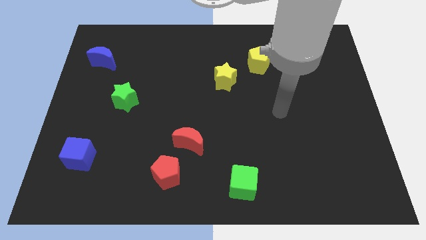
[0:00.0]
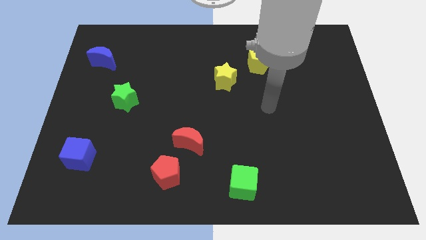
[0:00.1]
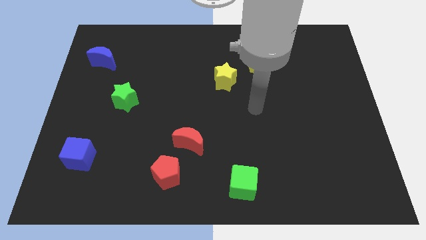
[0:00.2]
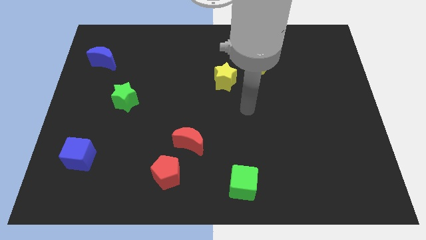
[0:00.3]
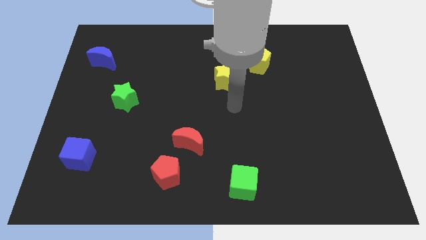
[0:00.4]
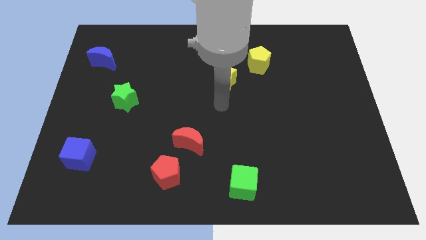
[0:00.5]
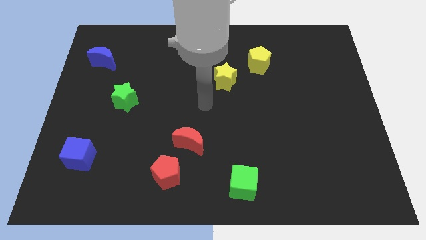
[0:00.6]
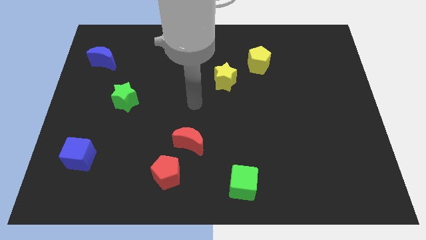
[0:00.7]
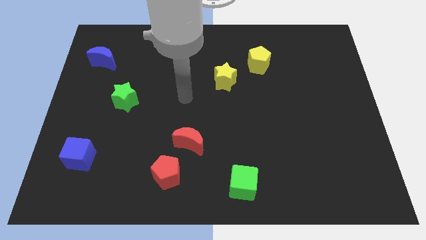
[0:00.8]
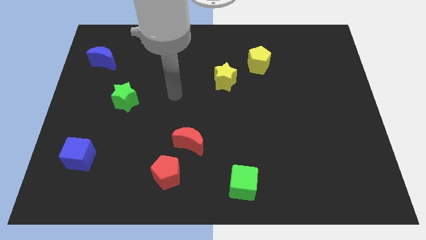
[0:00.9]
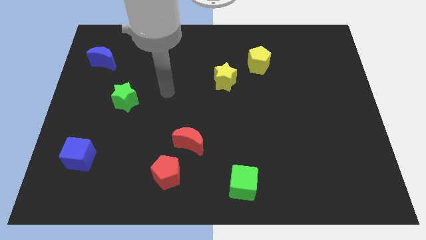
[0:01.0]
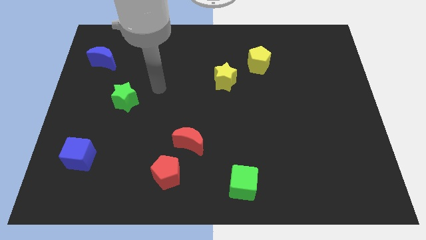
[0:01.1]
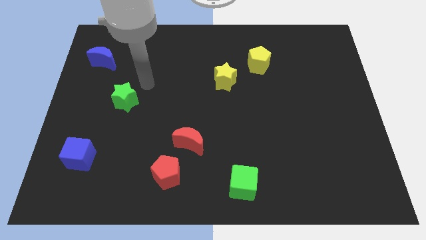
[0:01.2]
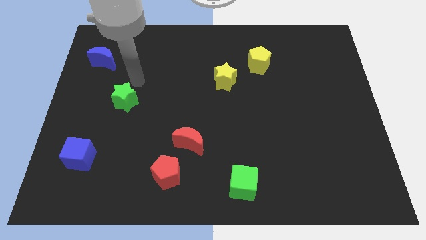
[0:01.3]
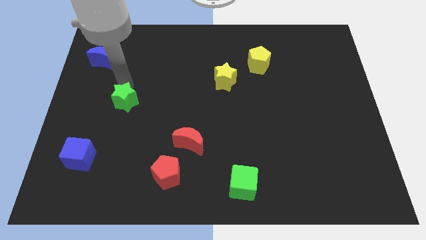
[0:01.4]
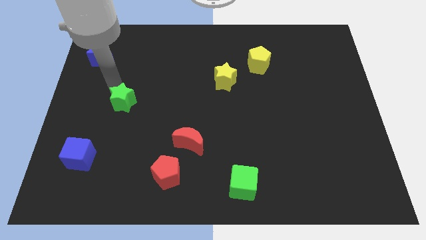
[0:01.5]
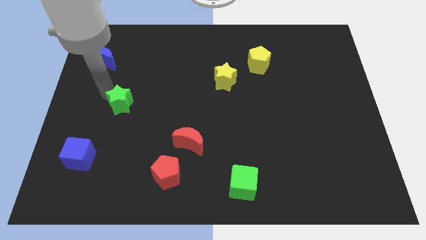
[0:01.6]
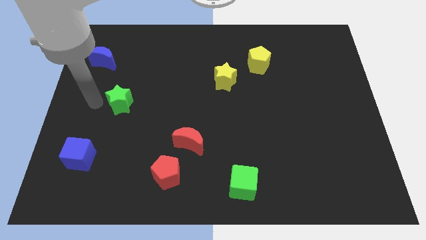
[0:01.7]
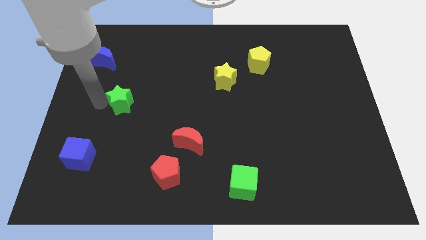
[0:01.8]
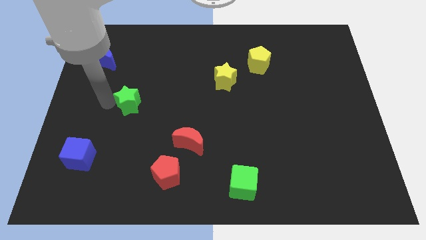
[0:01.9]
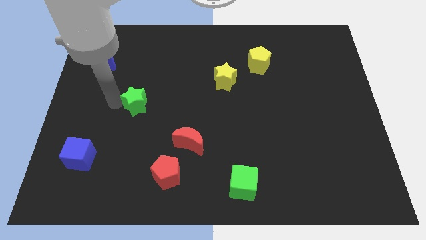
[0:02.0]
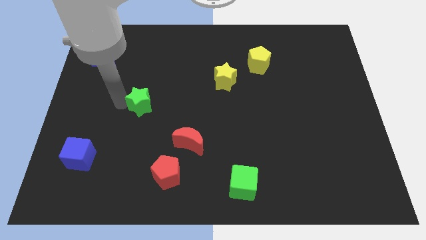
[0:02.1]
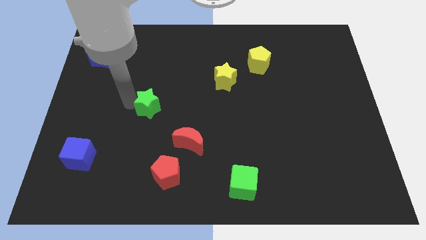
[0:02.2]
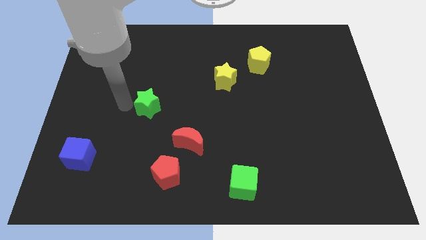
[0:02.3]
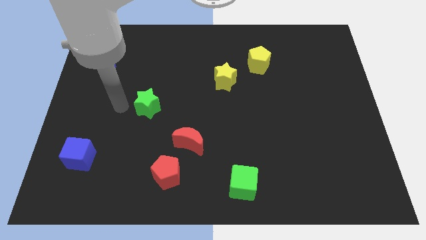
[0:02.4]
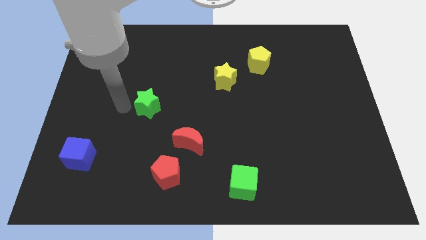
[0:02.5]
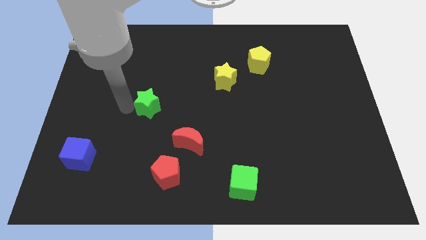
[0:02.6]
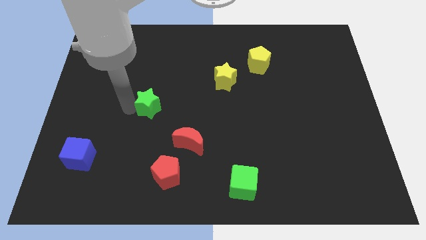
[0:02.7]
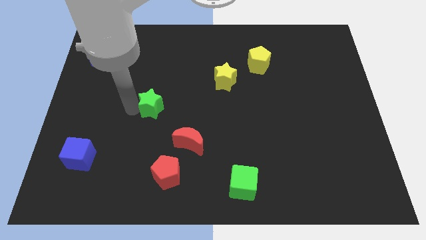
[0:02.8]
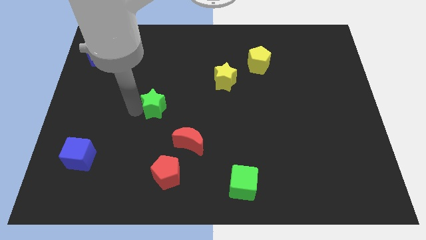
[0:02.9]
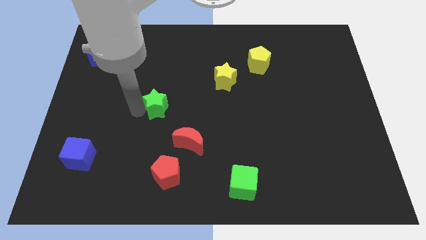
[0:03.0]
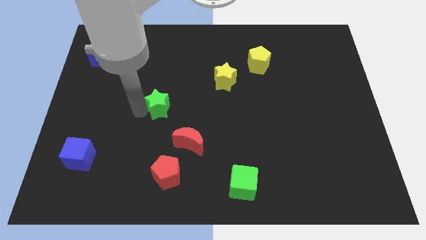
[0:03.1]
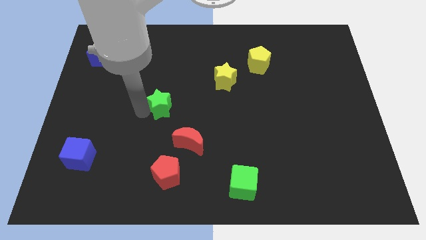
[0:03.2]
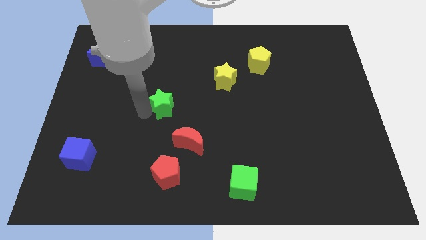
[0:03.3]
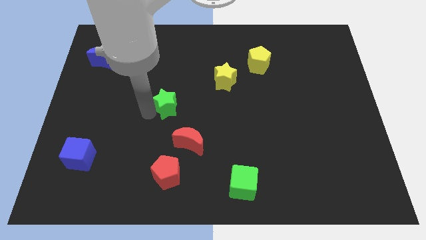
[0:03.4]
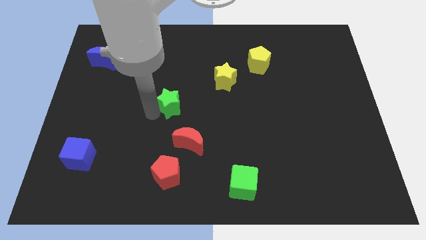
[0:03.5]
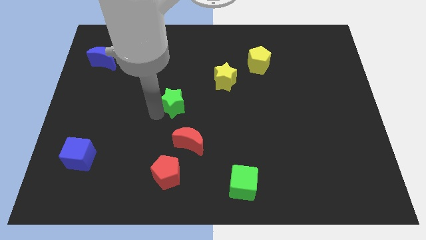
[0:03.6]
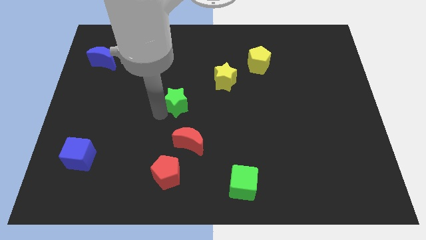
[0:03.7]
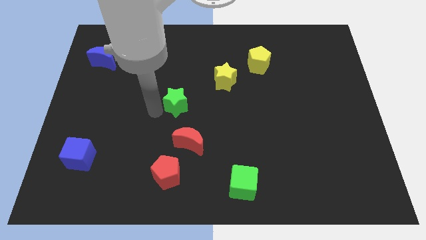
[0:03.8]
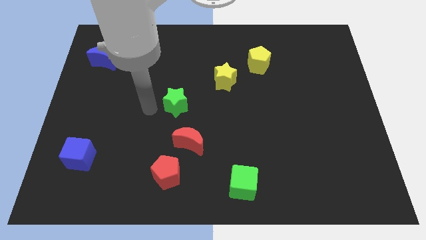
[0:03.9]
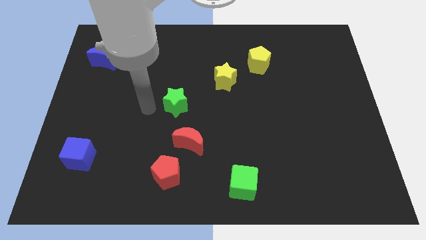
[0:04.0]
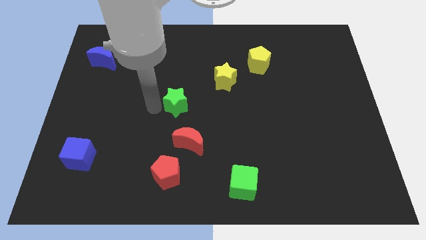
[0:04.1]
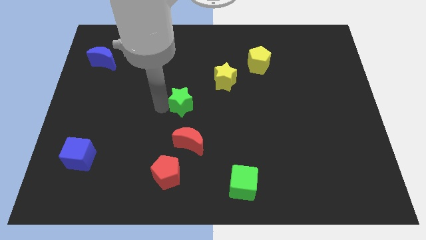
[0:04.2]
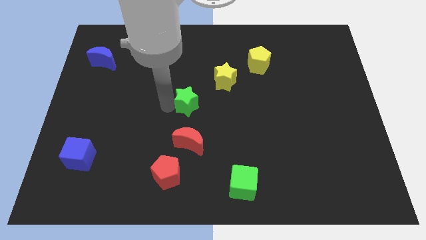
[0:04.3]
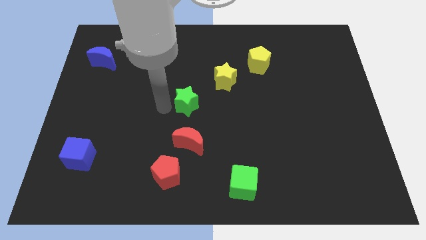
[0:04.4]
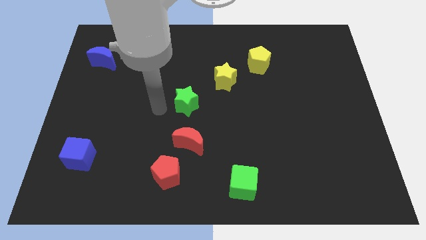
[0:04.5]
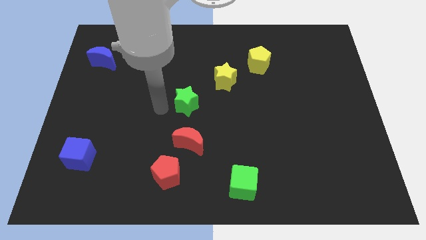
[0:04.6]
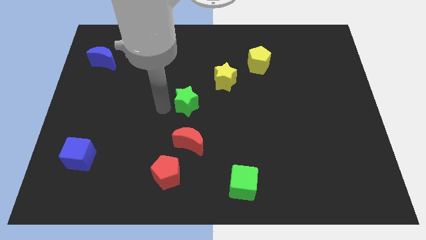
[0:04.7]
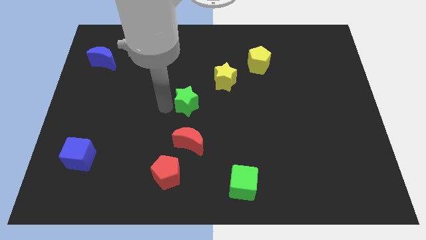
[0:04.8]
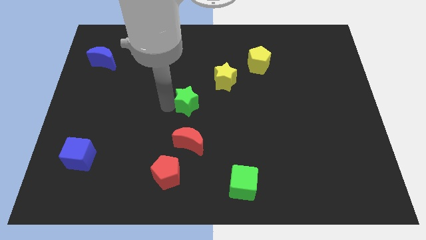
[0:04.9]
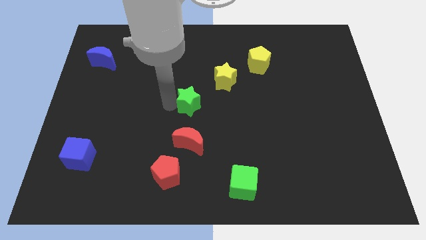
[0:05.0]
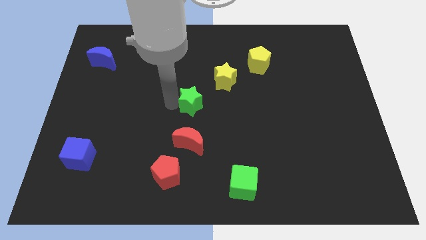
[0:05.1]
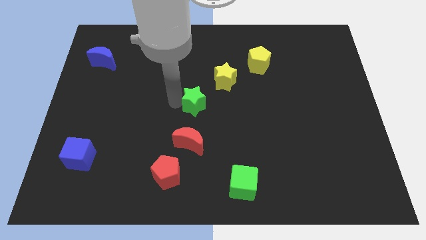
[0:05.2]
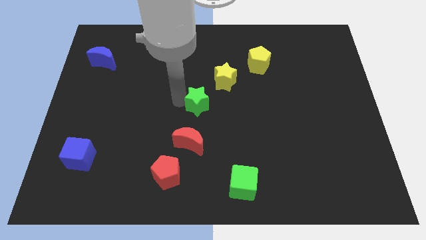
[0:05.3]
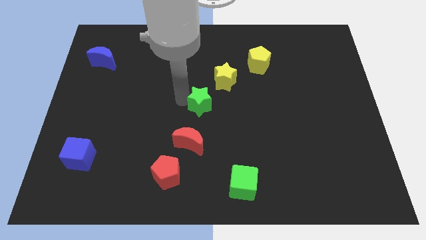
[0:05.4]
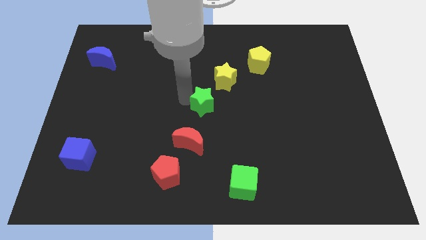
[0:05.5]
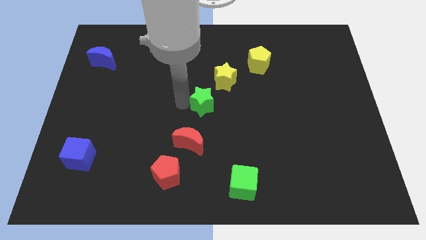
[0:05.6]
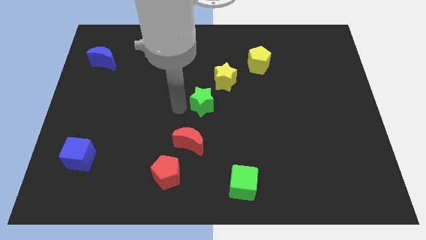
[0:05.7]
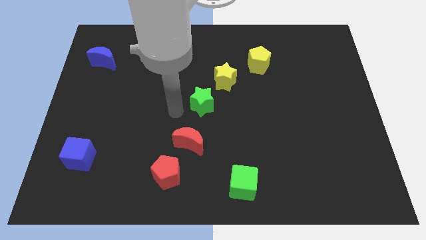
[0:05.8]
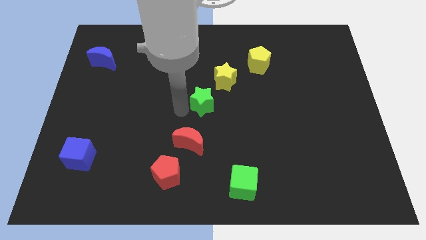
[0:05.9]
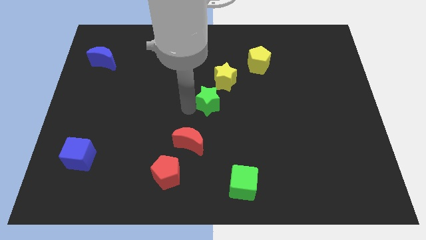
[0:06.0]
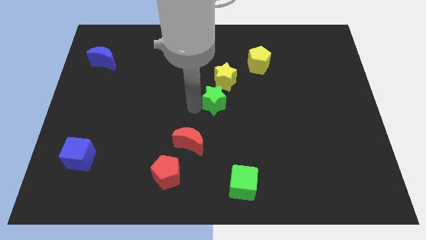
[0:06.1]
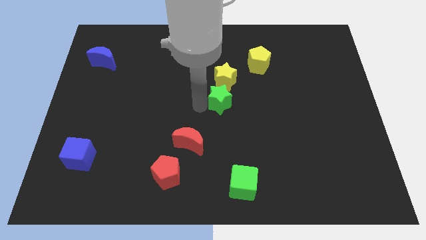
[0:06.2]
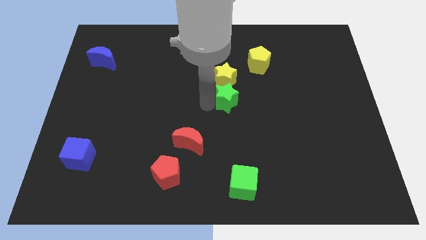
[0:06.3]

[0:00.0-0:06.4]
put the green star diagonally down and to the right of the yellow star

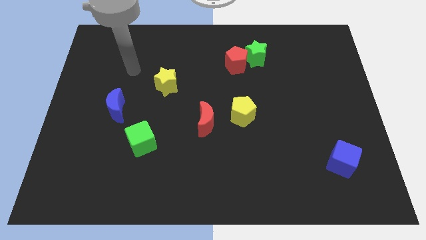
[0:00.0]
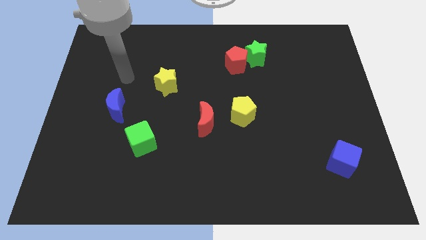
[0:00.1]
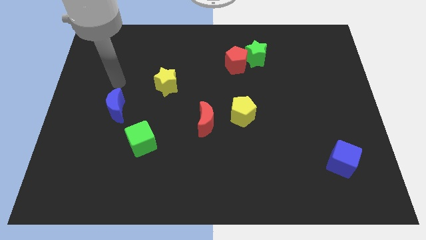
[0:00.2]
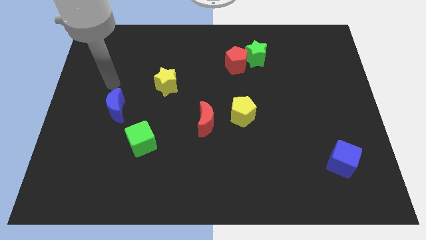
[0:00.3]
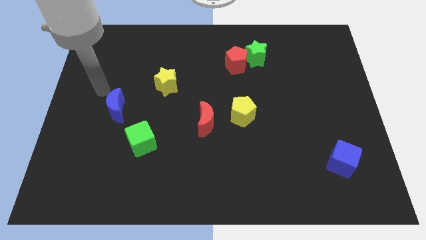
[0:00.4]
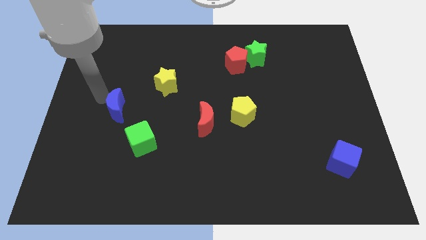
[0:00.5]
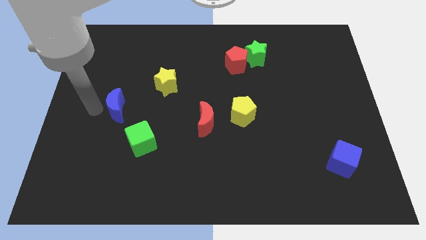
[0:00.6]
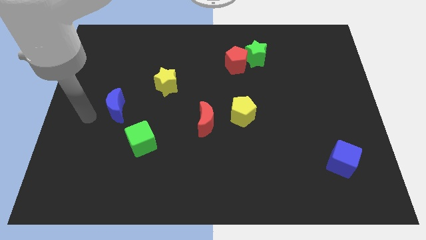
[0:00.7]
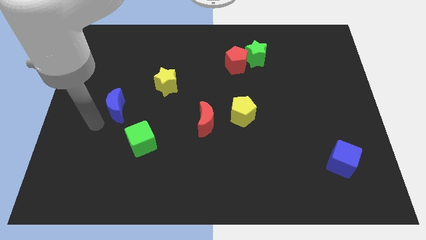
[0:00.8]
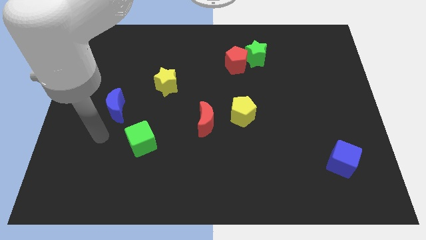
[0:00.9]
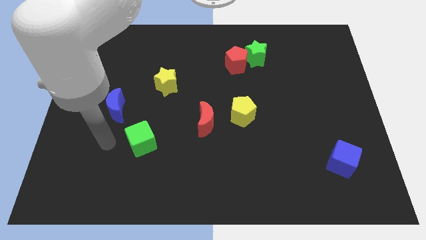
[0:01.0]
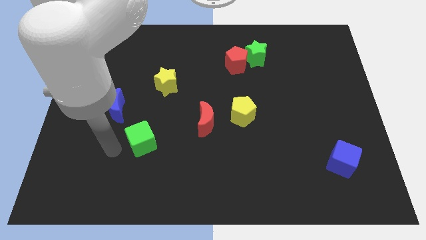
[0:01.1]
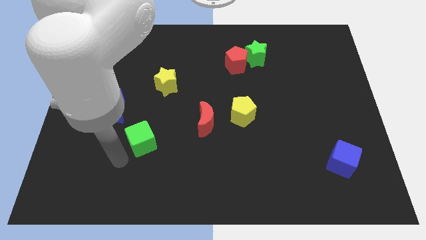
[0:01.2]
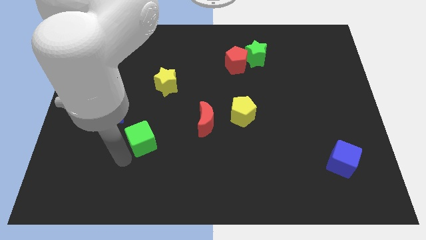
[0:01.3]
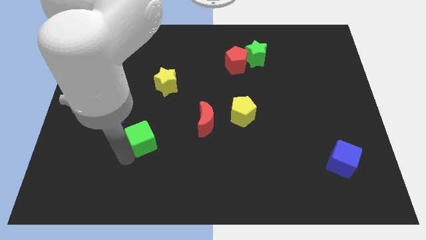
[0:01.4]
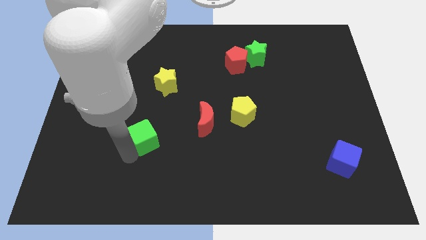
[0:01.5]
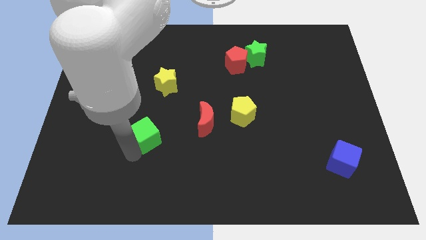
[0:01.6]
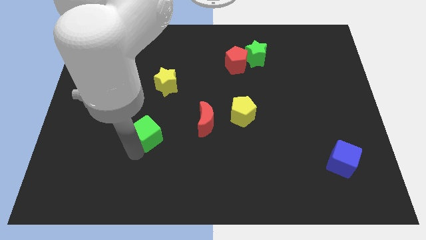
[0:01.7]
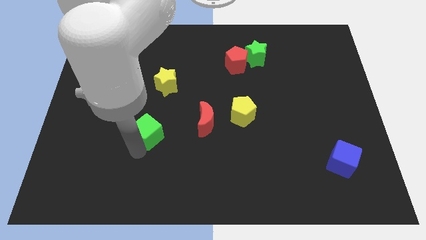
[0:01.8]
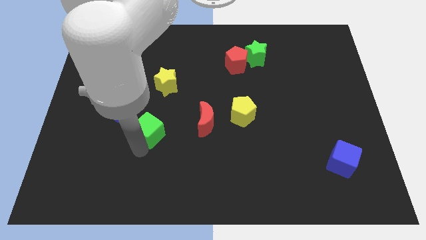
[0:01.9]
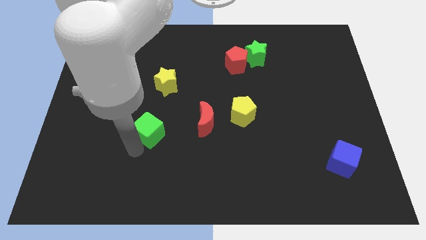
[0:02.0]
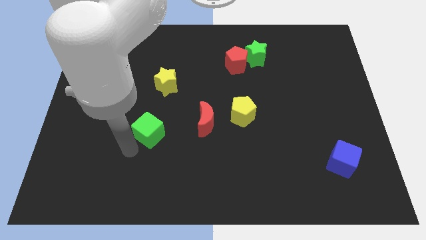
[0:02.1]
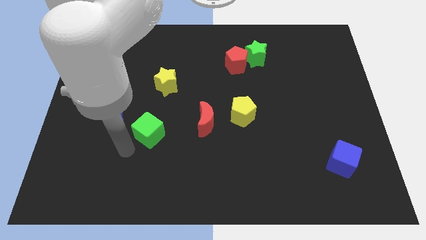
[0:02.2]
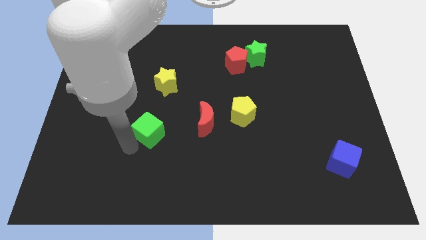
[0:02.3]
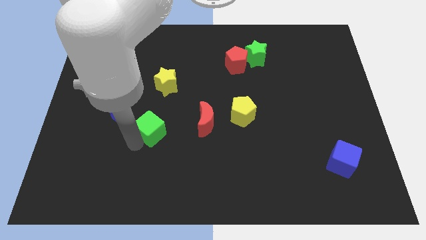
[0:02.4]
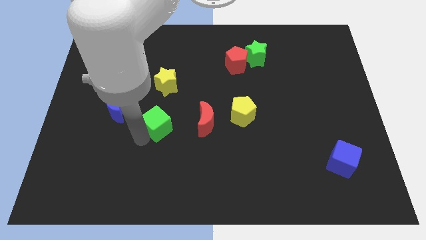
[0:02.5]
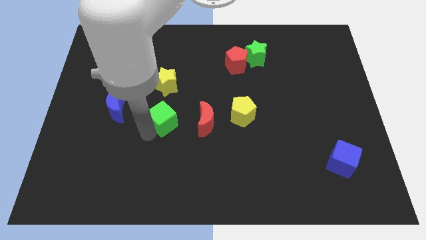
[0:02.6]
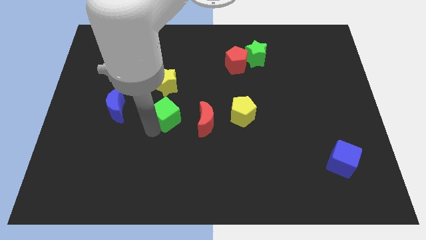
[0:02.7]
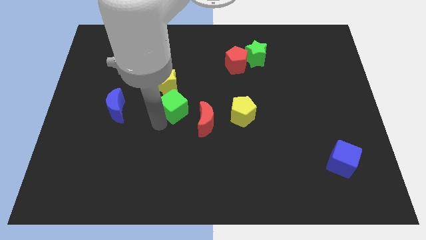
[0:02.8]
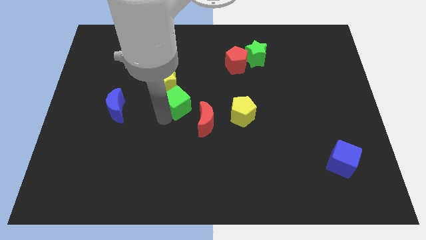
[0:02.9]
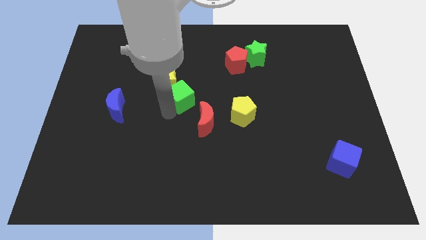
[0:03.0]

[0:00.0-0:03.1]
move the green cube to the right side of the yellow star
